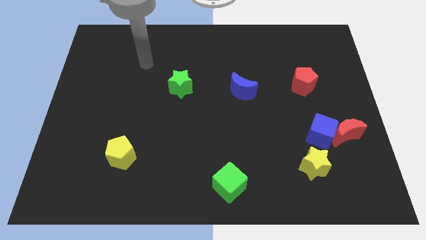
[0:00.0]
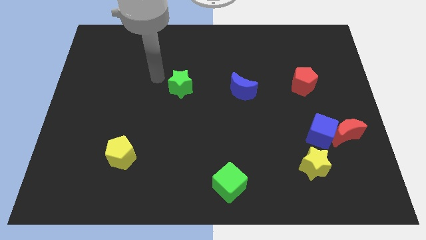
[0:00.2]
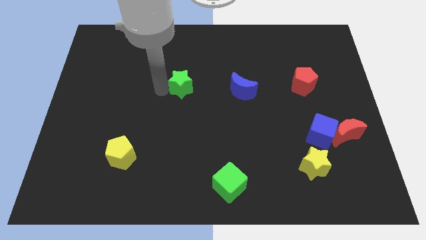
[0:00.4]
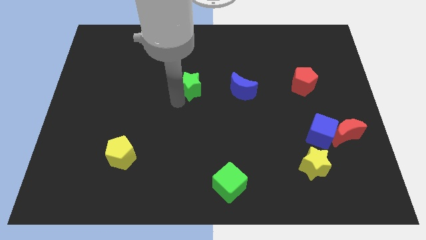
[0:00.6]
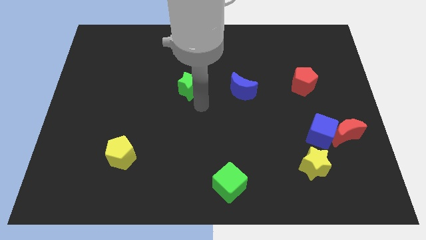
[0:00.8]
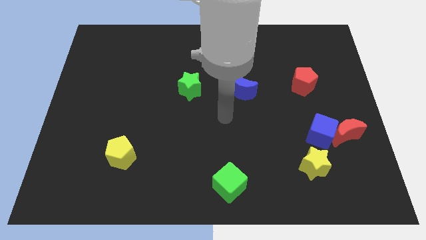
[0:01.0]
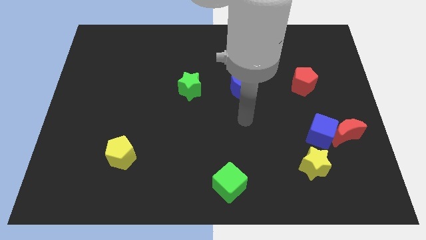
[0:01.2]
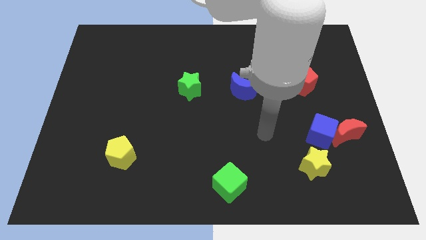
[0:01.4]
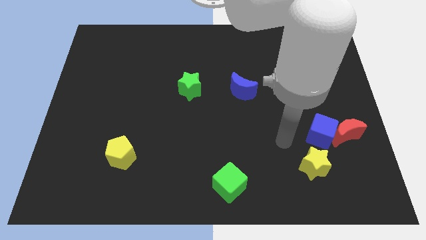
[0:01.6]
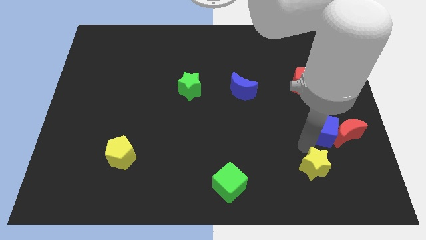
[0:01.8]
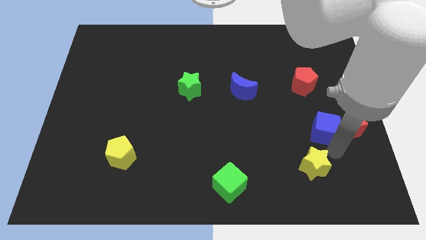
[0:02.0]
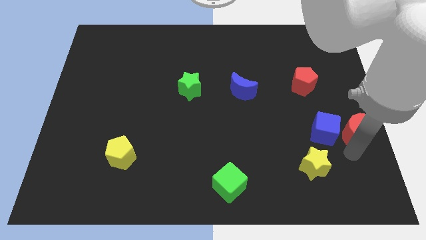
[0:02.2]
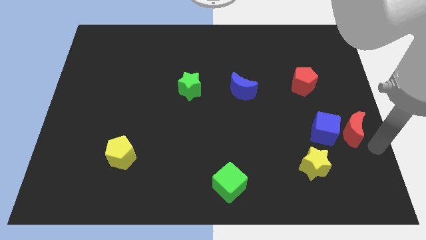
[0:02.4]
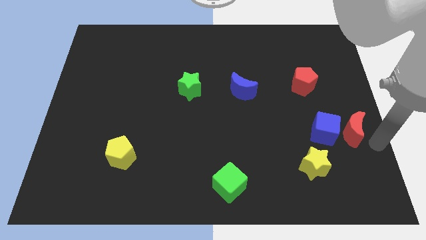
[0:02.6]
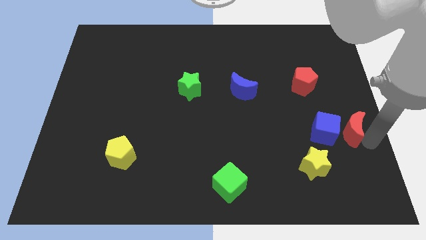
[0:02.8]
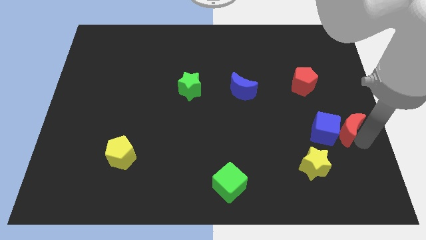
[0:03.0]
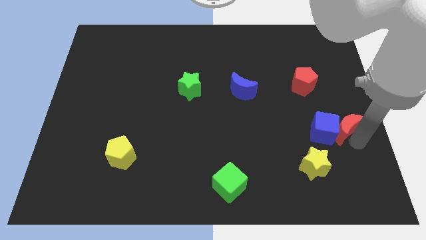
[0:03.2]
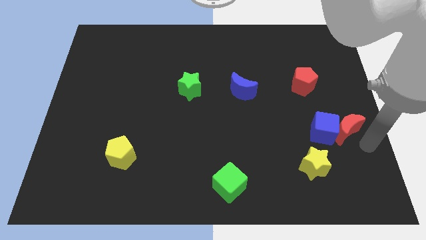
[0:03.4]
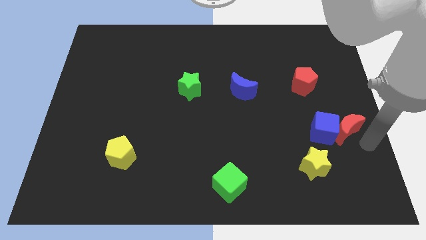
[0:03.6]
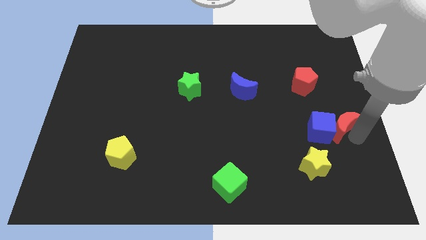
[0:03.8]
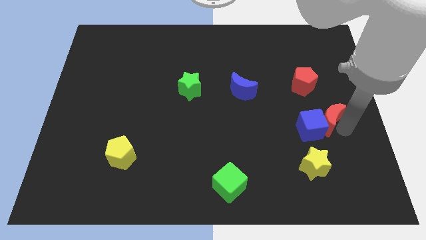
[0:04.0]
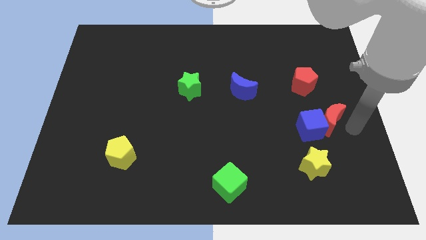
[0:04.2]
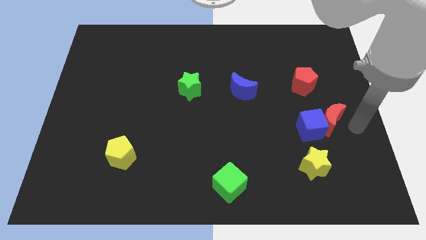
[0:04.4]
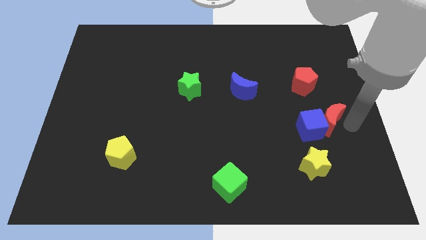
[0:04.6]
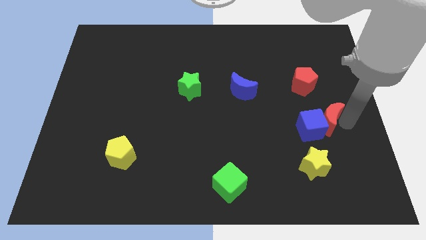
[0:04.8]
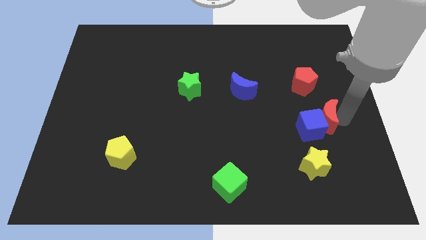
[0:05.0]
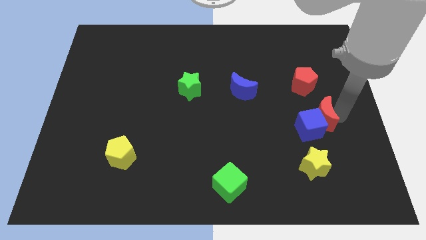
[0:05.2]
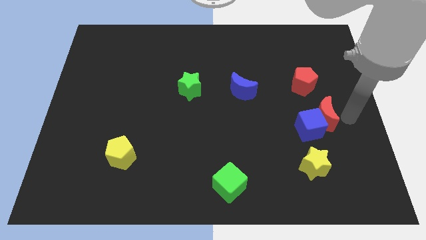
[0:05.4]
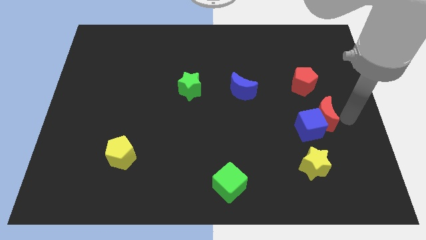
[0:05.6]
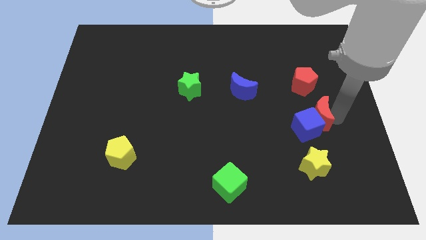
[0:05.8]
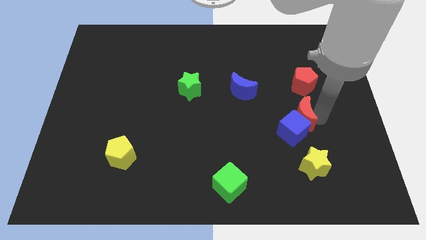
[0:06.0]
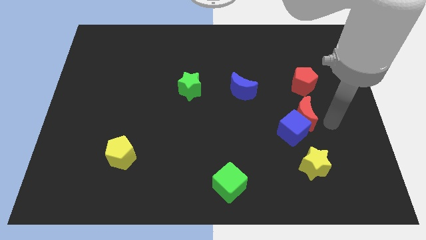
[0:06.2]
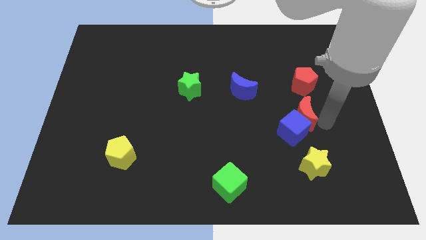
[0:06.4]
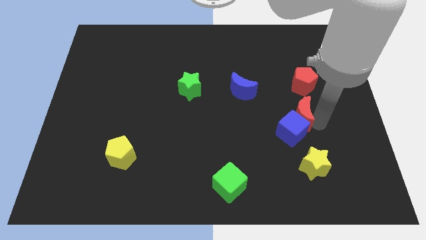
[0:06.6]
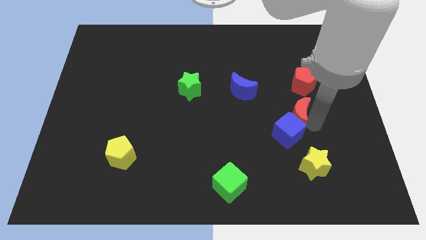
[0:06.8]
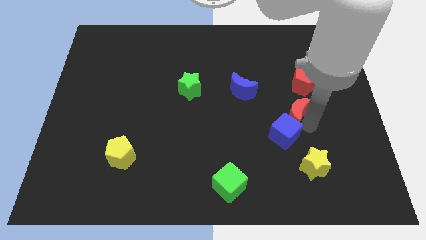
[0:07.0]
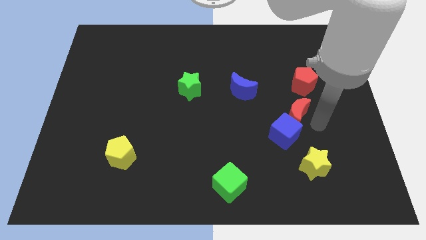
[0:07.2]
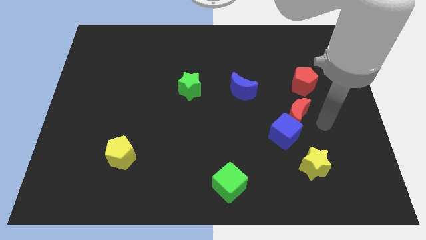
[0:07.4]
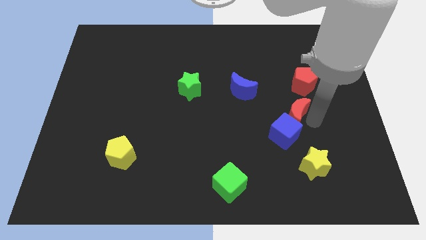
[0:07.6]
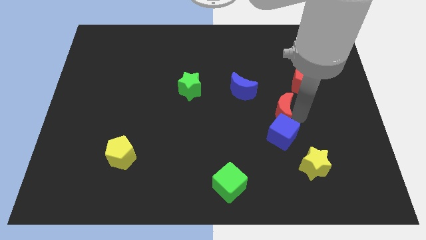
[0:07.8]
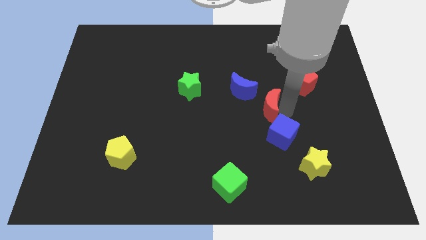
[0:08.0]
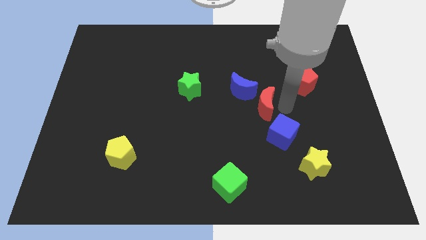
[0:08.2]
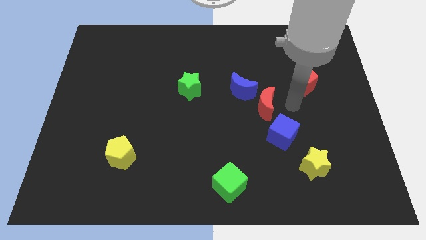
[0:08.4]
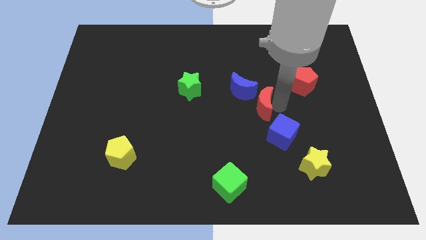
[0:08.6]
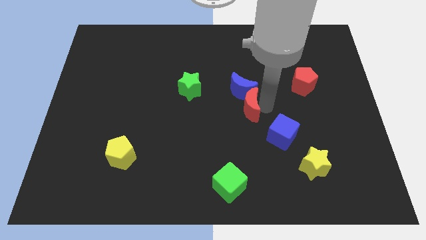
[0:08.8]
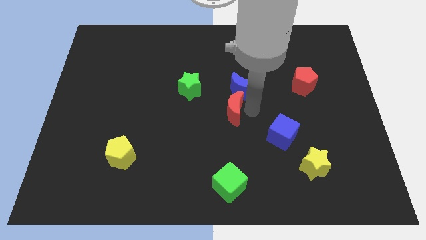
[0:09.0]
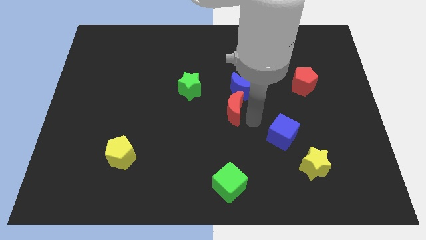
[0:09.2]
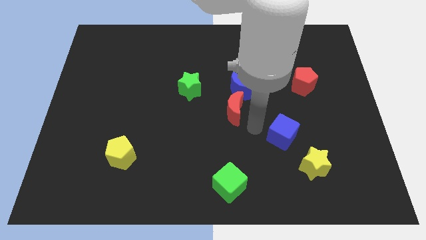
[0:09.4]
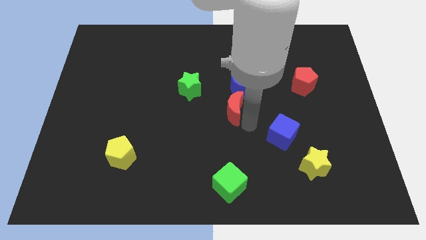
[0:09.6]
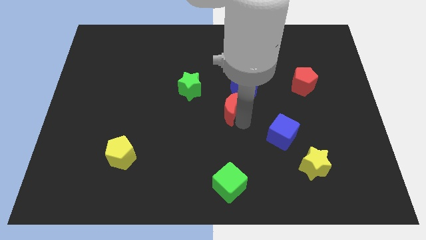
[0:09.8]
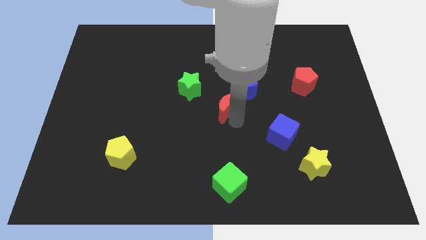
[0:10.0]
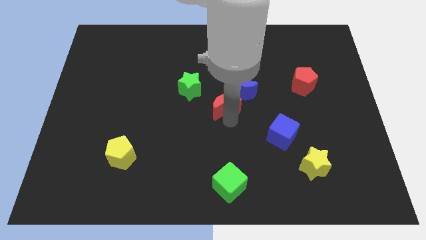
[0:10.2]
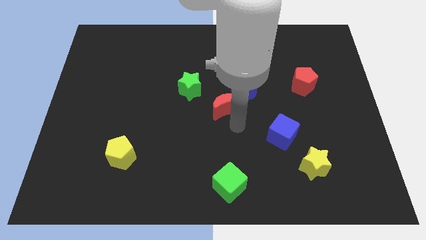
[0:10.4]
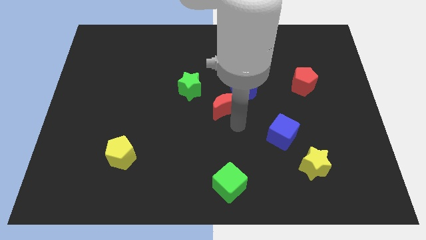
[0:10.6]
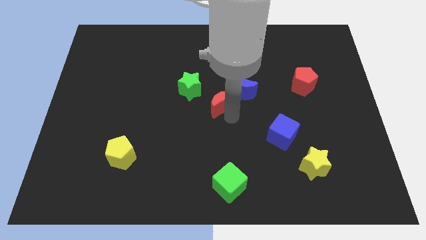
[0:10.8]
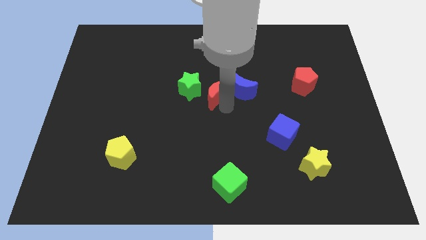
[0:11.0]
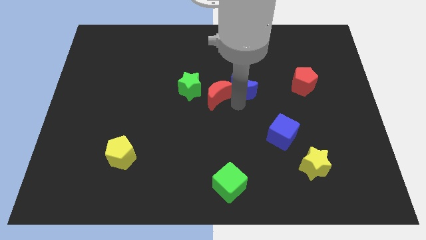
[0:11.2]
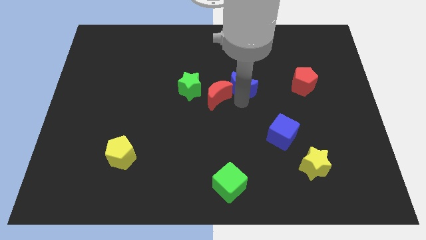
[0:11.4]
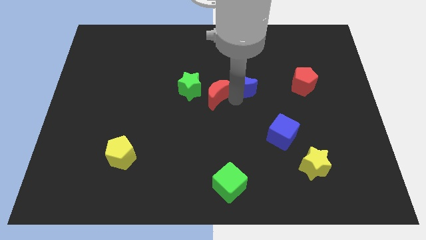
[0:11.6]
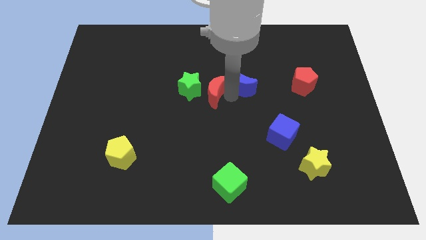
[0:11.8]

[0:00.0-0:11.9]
move the red moon to the green star

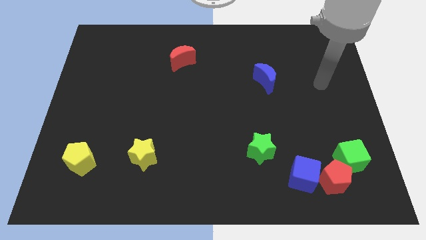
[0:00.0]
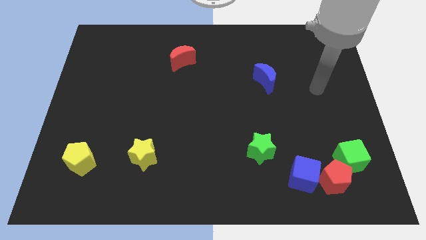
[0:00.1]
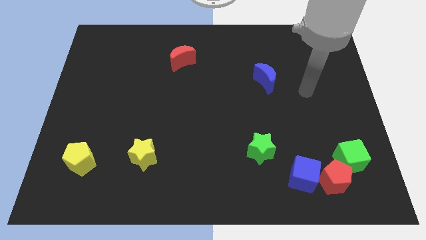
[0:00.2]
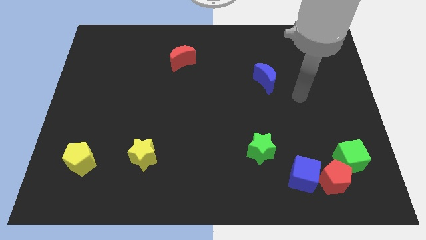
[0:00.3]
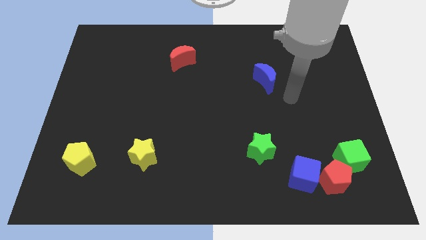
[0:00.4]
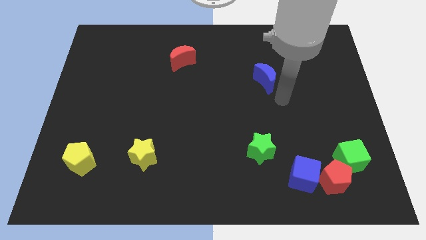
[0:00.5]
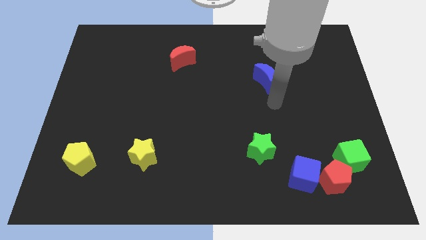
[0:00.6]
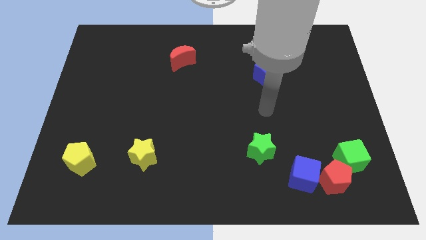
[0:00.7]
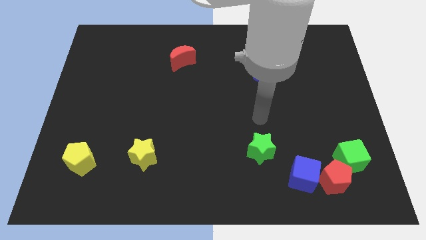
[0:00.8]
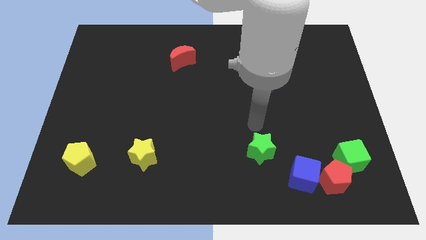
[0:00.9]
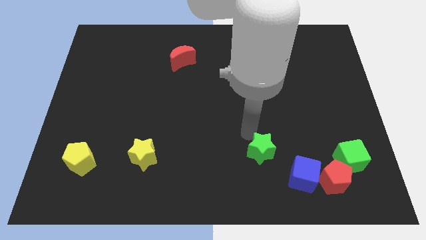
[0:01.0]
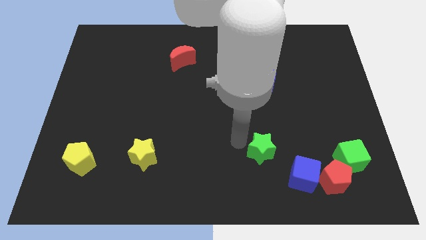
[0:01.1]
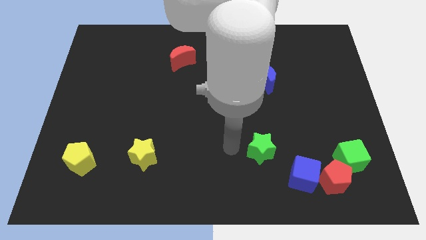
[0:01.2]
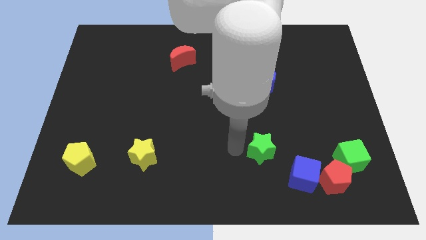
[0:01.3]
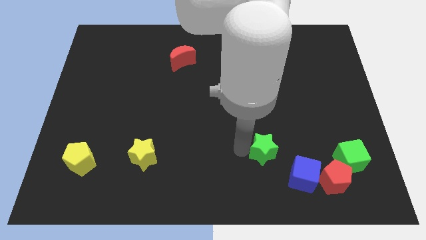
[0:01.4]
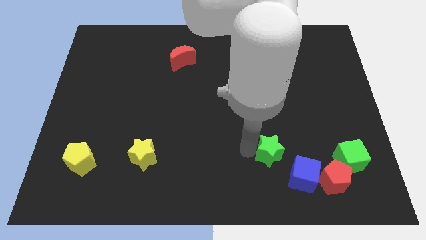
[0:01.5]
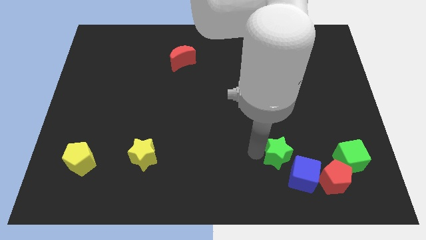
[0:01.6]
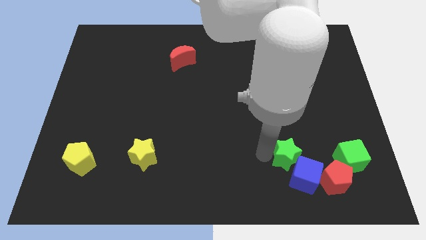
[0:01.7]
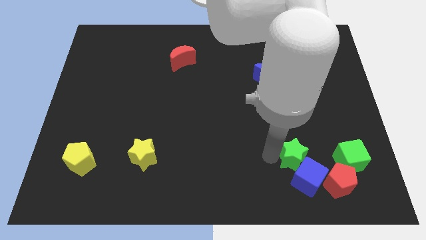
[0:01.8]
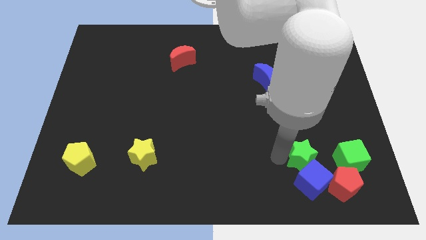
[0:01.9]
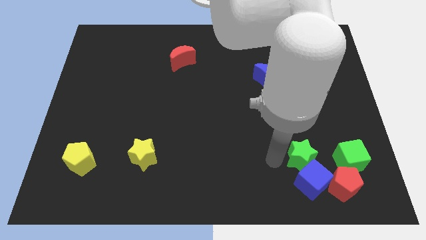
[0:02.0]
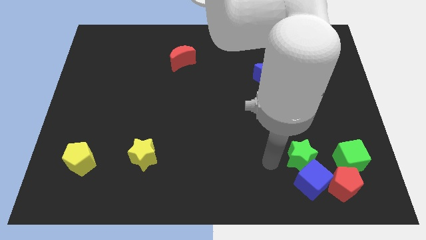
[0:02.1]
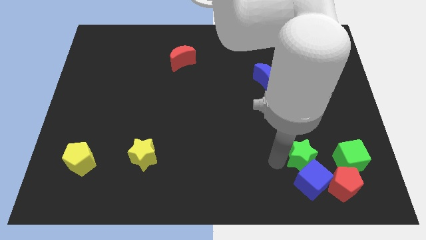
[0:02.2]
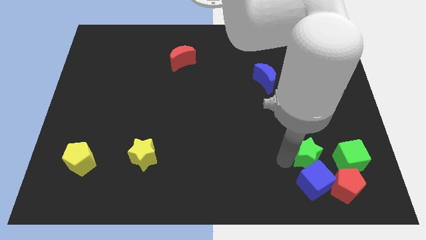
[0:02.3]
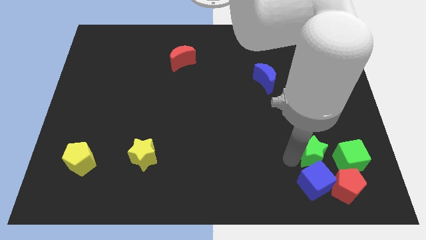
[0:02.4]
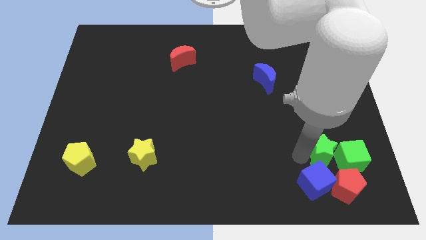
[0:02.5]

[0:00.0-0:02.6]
push the green star next to the green cube
